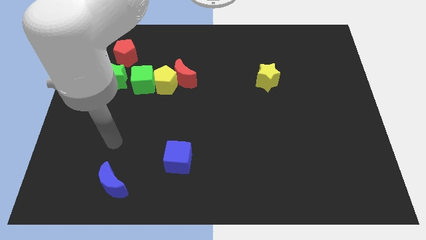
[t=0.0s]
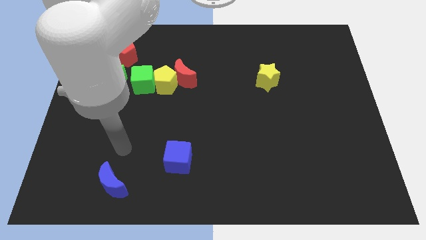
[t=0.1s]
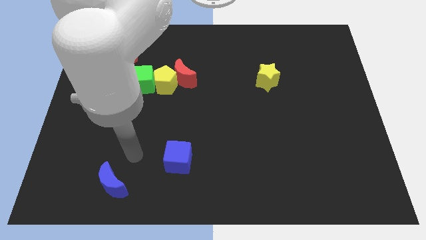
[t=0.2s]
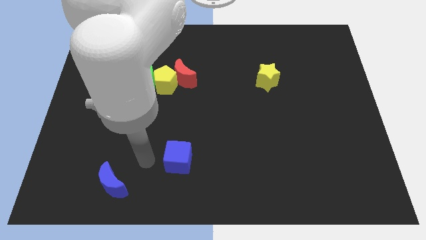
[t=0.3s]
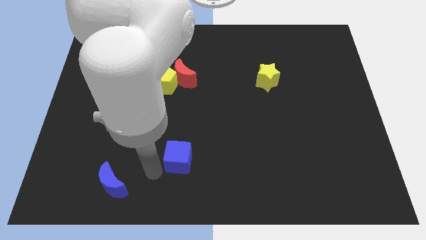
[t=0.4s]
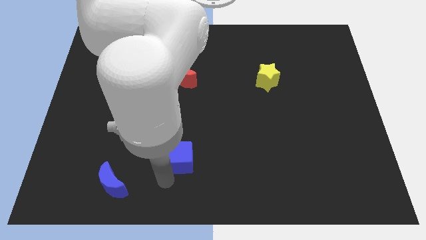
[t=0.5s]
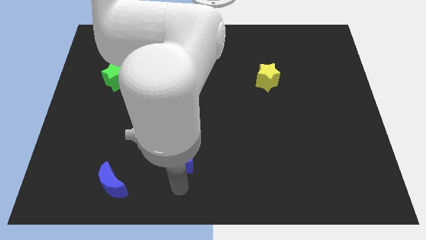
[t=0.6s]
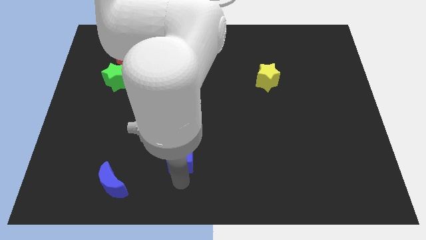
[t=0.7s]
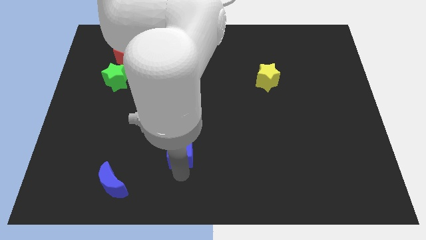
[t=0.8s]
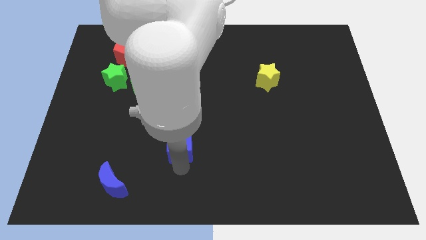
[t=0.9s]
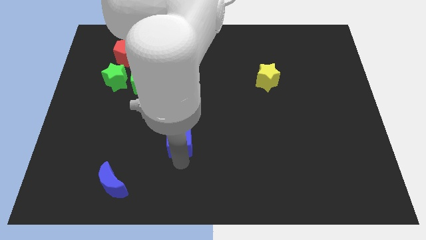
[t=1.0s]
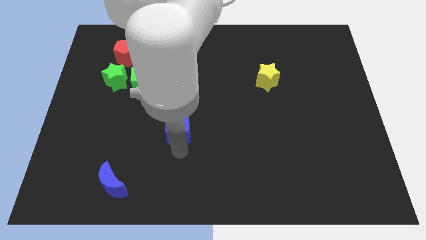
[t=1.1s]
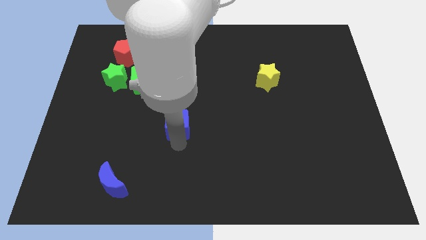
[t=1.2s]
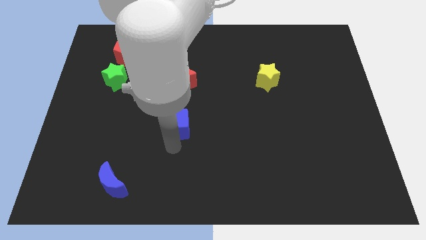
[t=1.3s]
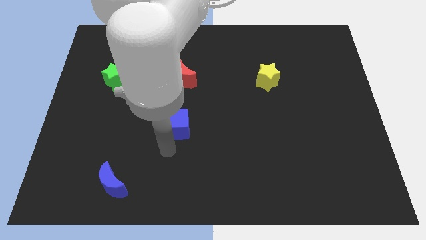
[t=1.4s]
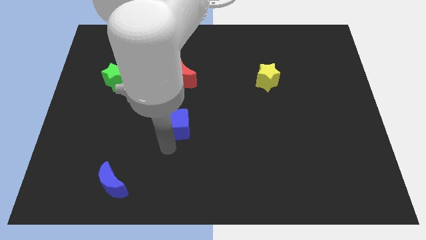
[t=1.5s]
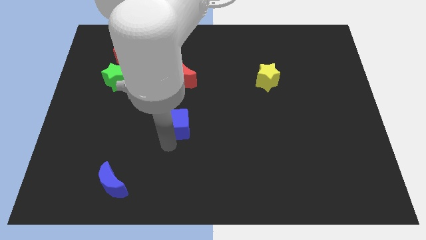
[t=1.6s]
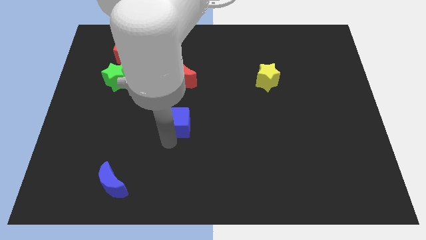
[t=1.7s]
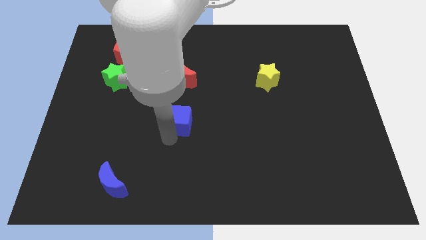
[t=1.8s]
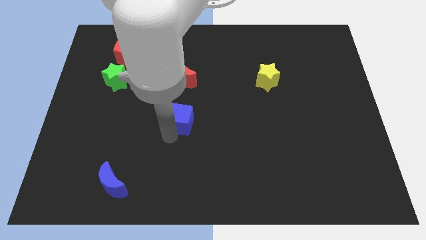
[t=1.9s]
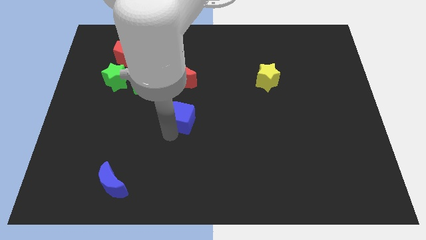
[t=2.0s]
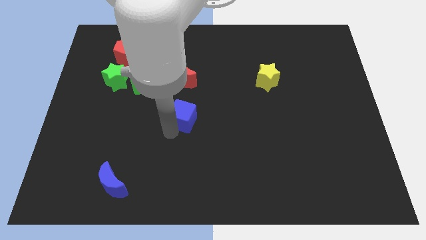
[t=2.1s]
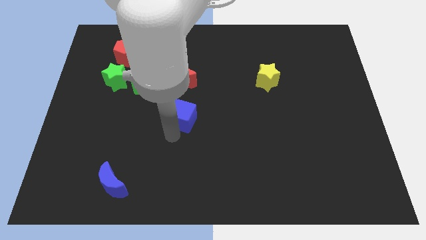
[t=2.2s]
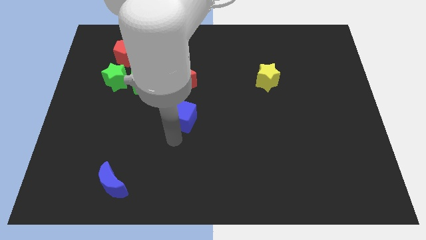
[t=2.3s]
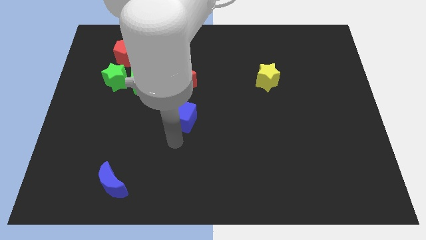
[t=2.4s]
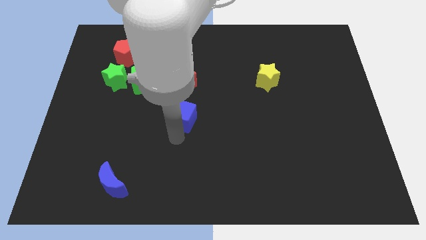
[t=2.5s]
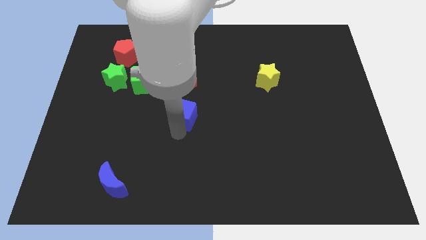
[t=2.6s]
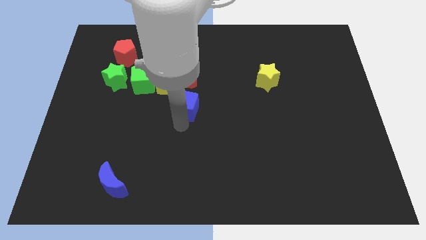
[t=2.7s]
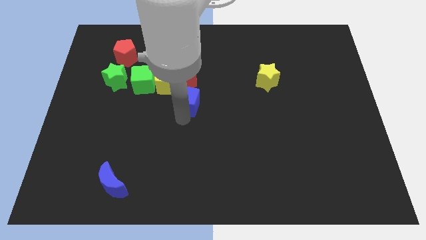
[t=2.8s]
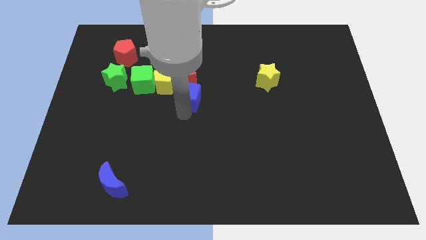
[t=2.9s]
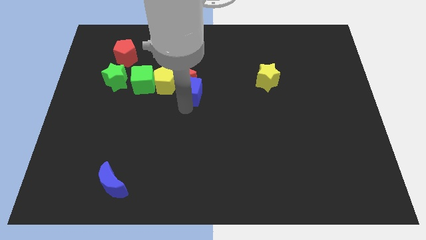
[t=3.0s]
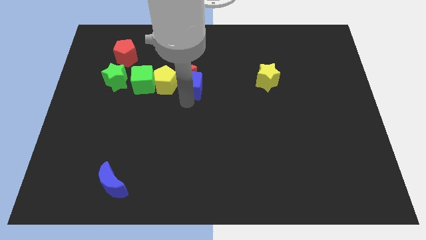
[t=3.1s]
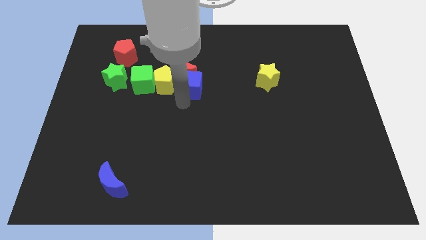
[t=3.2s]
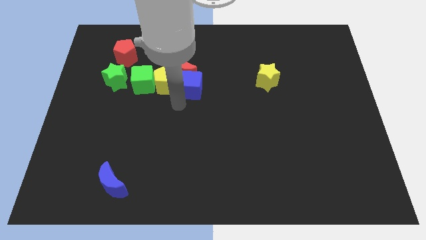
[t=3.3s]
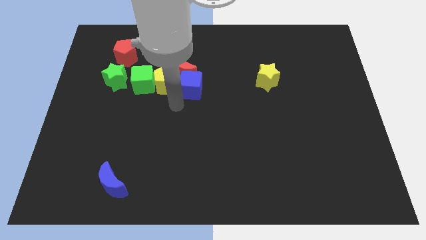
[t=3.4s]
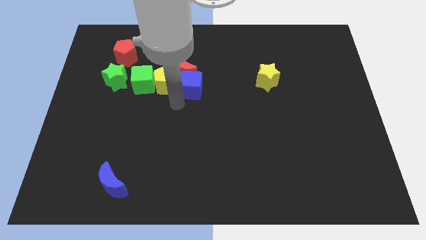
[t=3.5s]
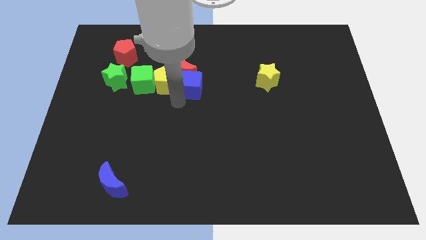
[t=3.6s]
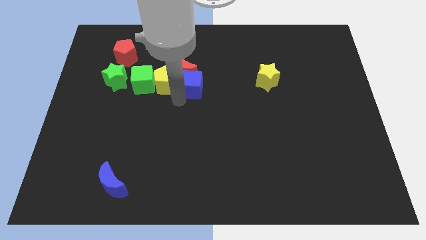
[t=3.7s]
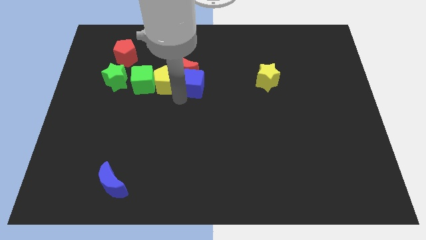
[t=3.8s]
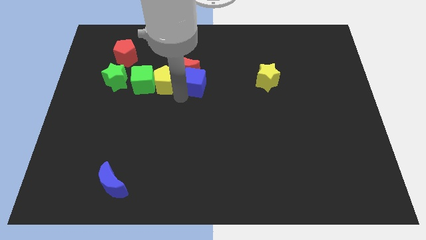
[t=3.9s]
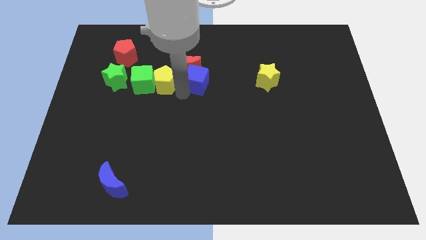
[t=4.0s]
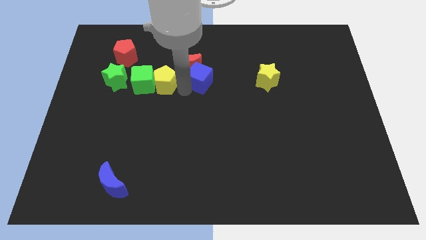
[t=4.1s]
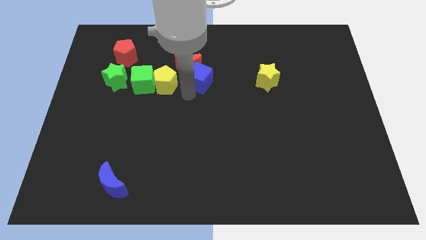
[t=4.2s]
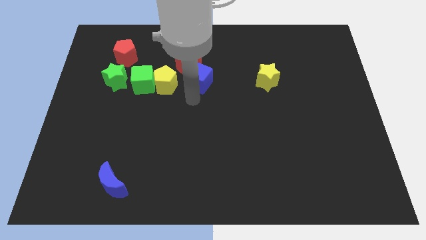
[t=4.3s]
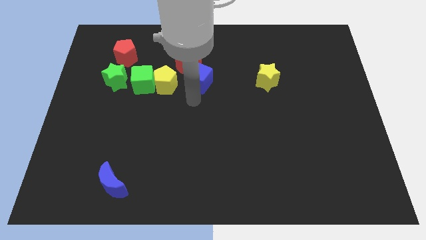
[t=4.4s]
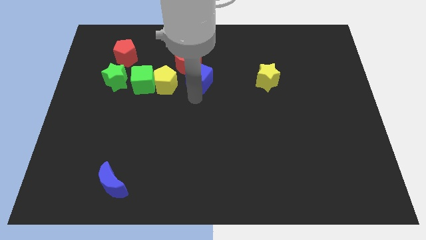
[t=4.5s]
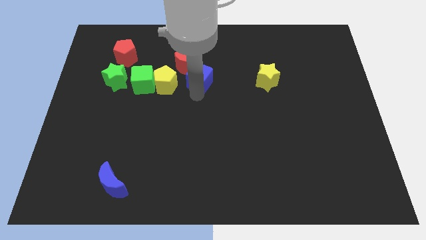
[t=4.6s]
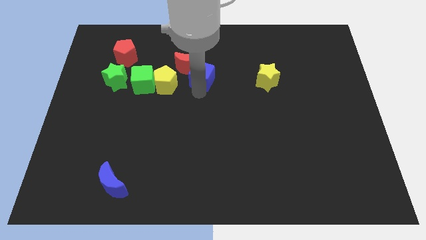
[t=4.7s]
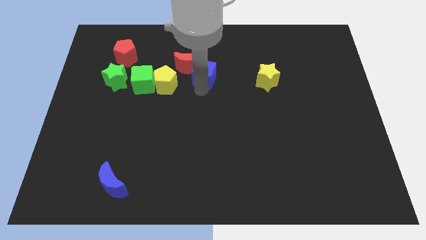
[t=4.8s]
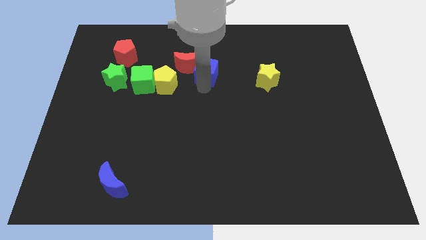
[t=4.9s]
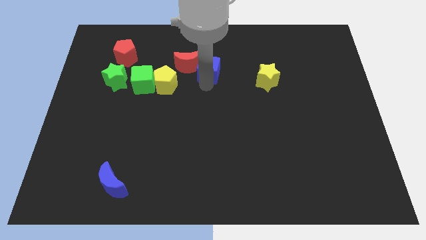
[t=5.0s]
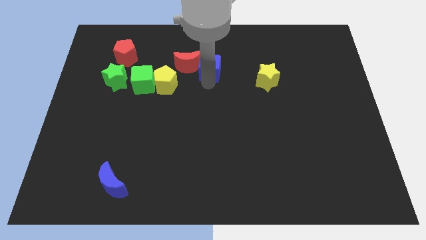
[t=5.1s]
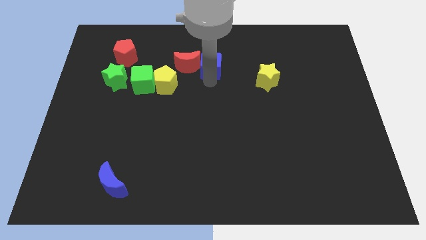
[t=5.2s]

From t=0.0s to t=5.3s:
put the blue cube diagonally up and to the right of the red moon

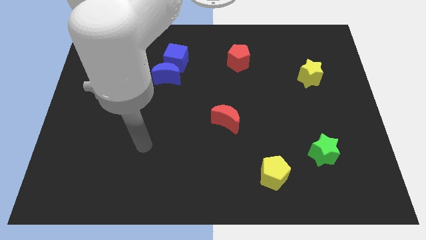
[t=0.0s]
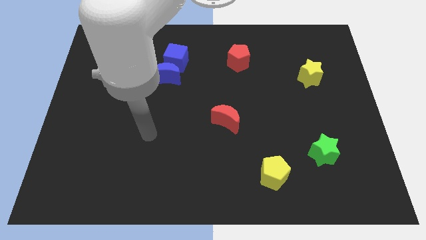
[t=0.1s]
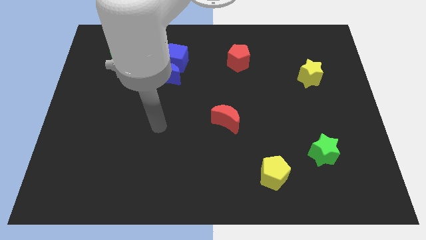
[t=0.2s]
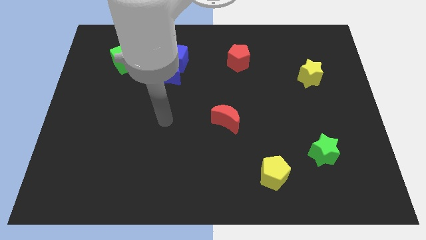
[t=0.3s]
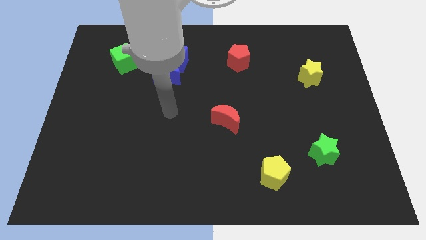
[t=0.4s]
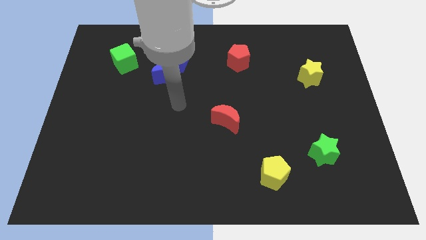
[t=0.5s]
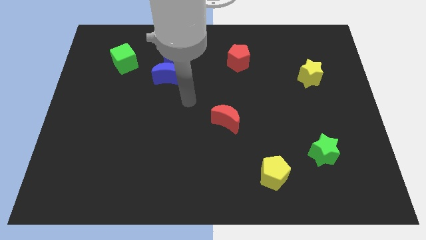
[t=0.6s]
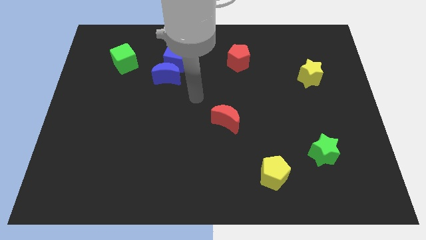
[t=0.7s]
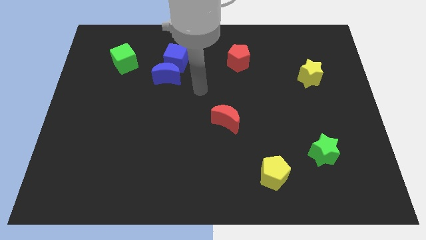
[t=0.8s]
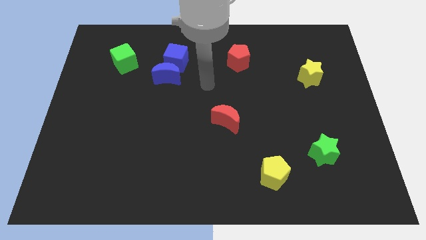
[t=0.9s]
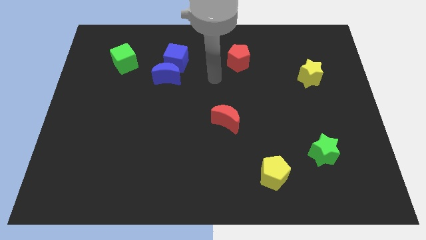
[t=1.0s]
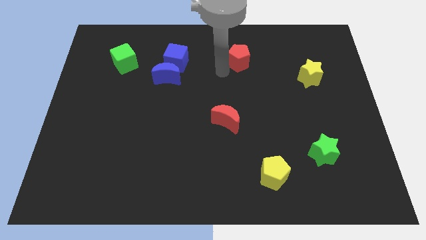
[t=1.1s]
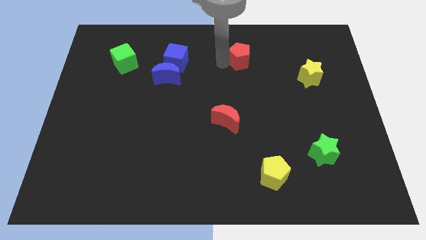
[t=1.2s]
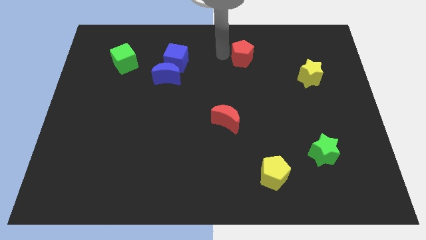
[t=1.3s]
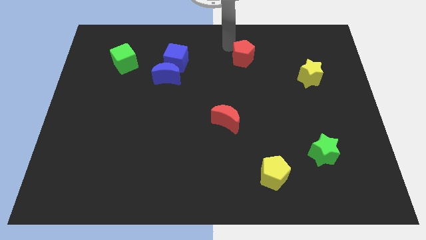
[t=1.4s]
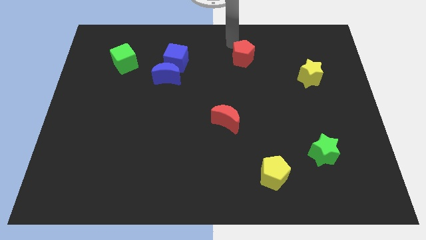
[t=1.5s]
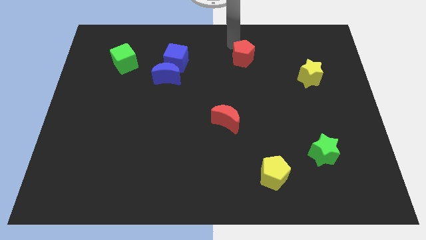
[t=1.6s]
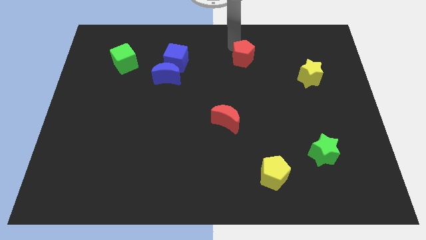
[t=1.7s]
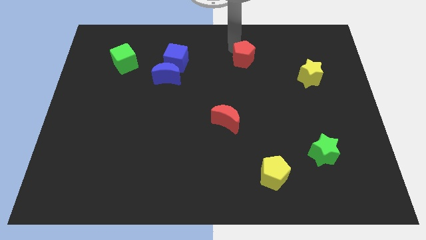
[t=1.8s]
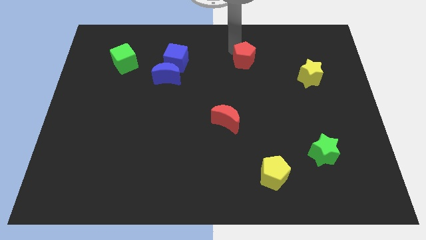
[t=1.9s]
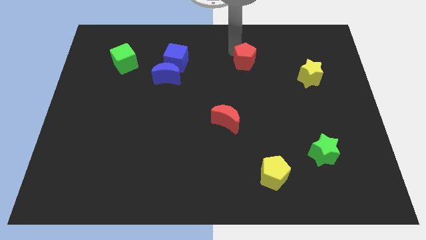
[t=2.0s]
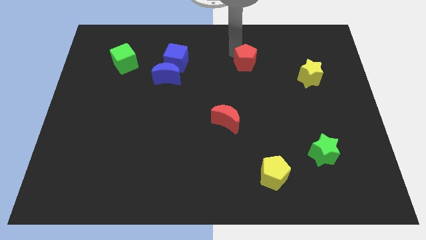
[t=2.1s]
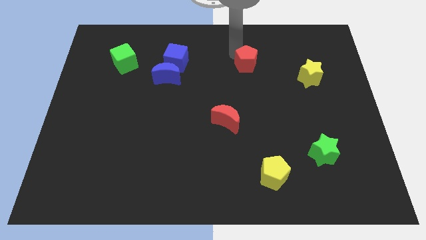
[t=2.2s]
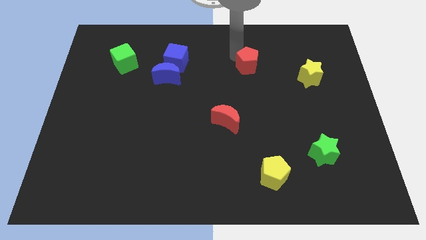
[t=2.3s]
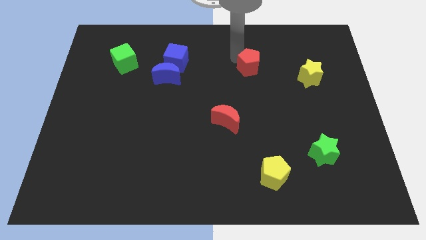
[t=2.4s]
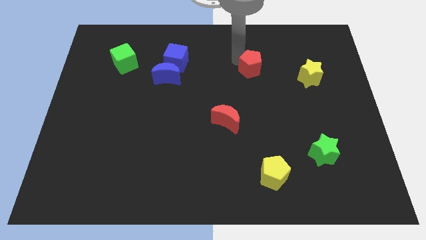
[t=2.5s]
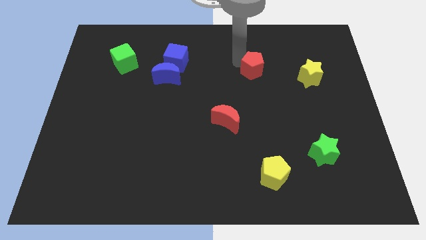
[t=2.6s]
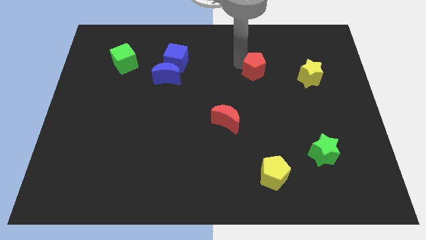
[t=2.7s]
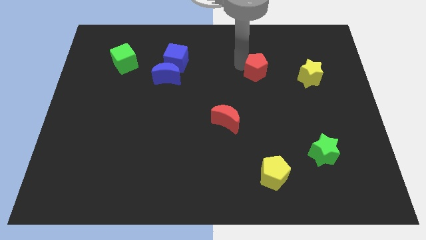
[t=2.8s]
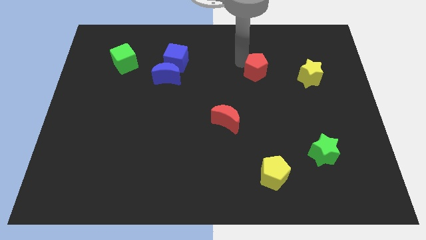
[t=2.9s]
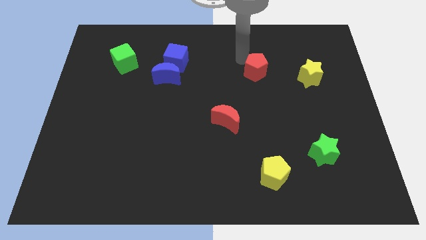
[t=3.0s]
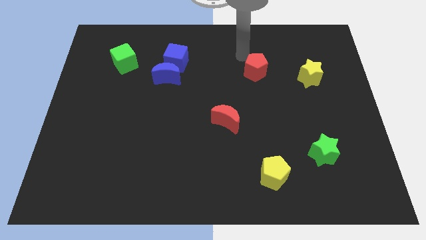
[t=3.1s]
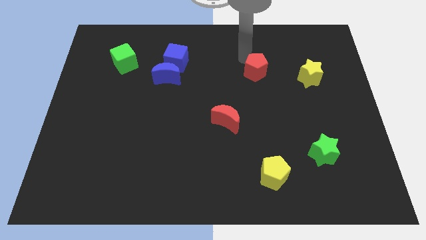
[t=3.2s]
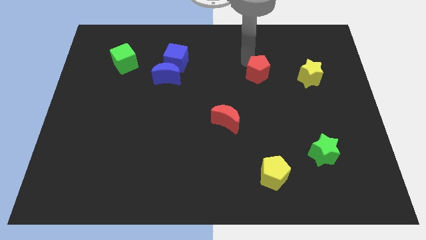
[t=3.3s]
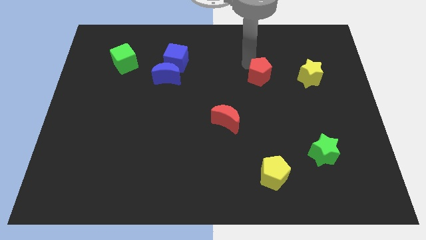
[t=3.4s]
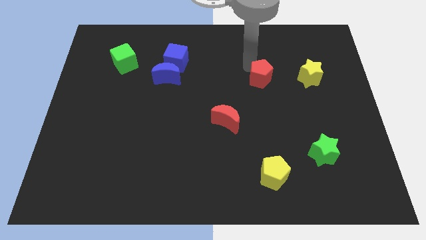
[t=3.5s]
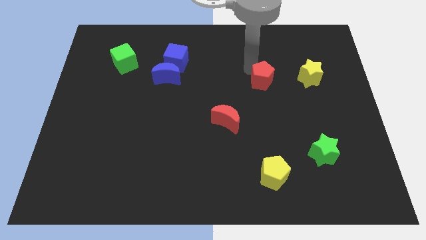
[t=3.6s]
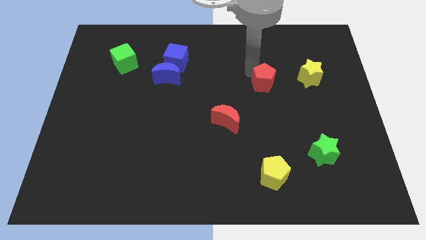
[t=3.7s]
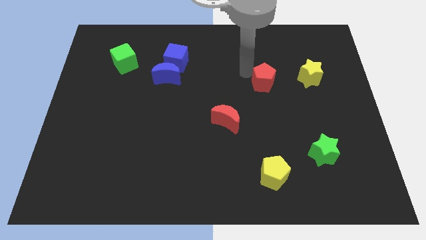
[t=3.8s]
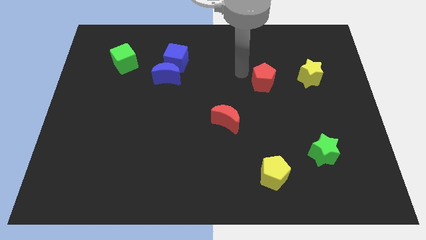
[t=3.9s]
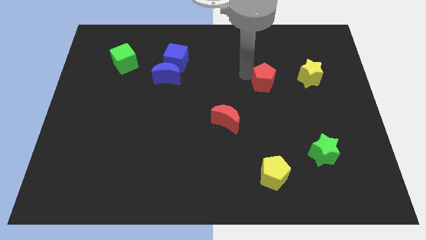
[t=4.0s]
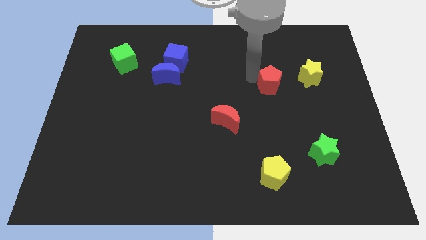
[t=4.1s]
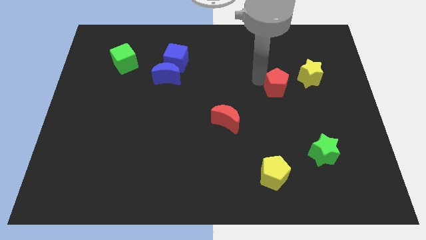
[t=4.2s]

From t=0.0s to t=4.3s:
move the red pentagon to the bottom left of the yellow star
